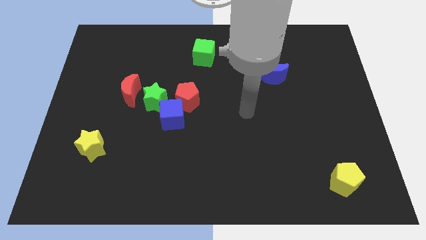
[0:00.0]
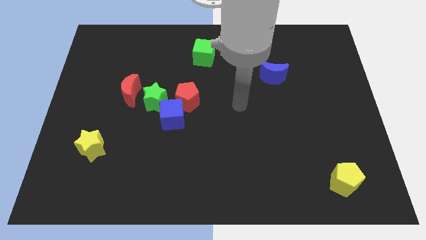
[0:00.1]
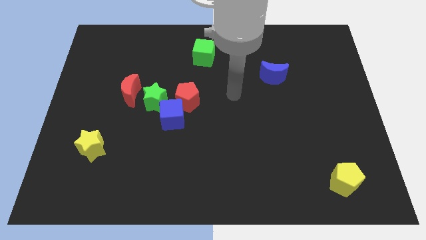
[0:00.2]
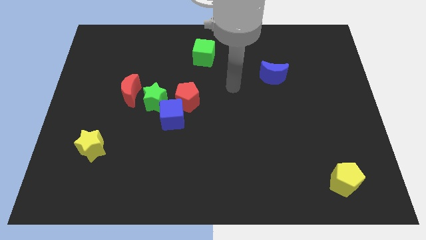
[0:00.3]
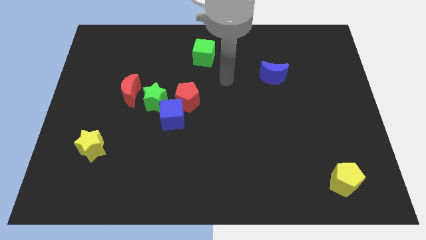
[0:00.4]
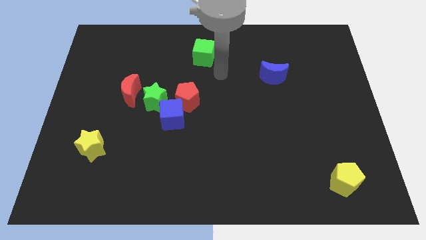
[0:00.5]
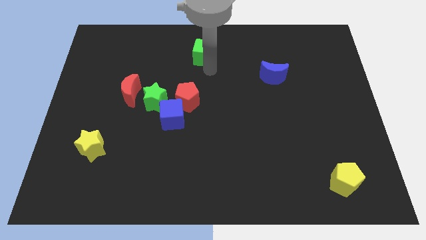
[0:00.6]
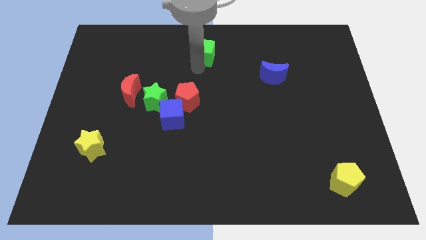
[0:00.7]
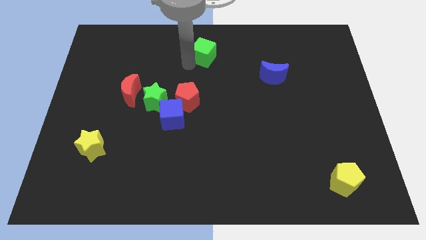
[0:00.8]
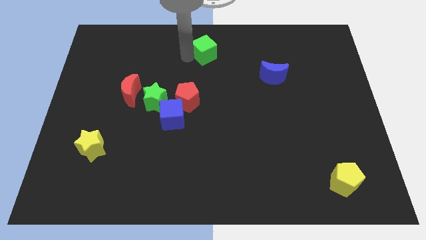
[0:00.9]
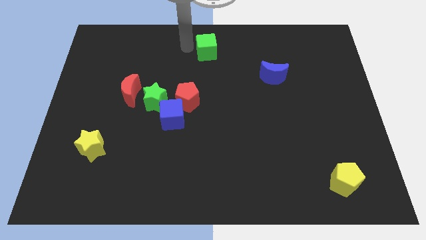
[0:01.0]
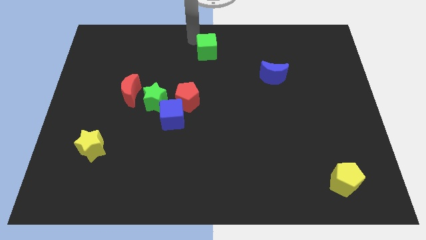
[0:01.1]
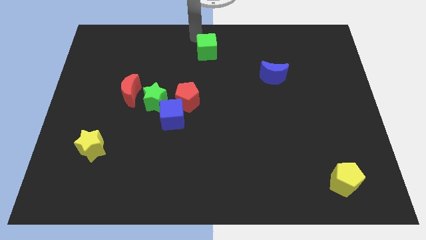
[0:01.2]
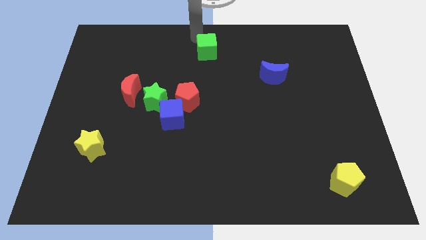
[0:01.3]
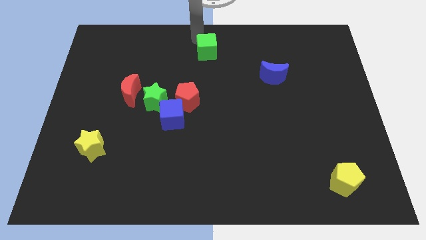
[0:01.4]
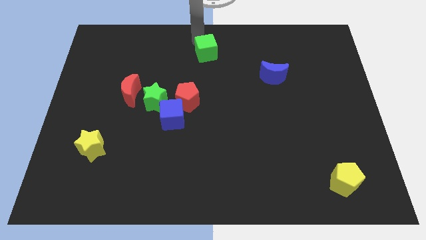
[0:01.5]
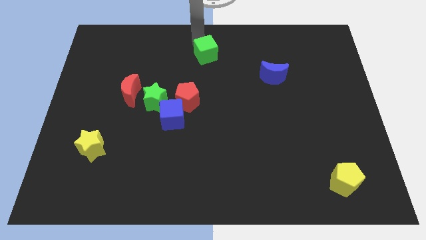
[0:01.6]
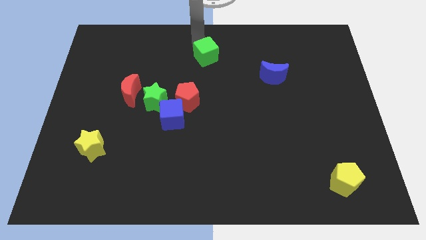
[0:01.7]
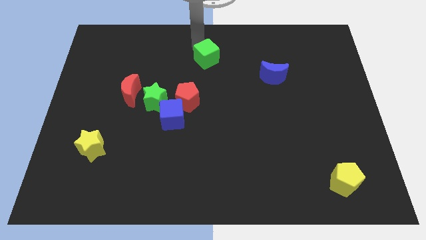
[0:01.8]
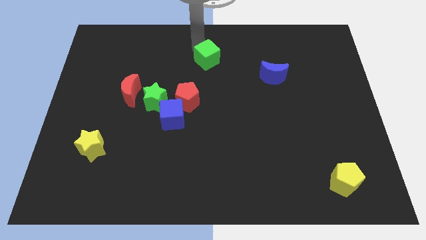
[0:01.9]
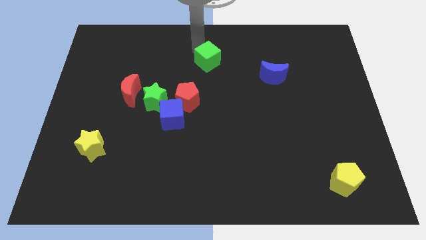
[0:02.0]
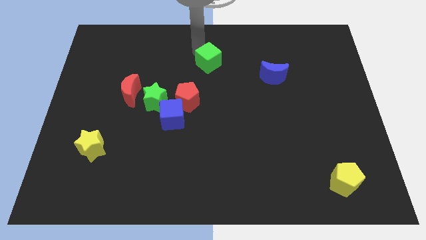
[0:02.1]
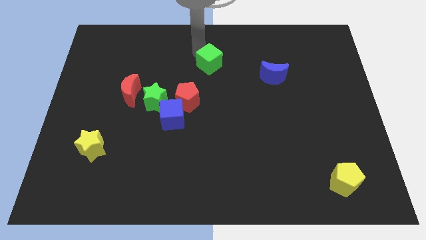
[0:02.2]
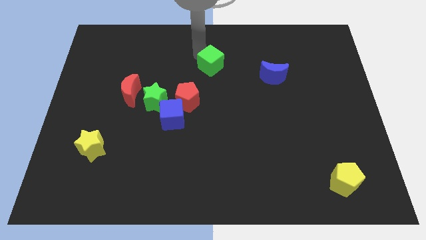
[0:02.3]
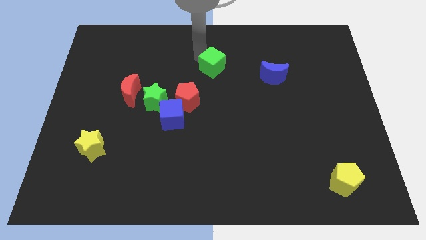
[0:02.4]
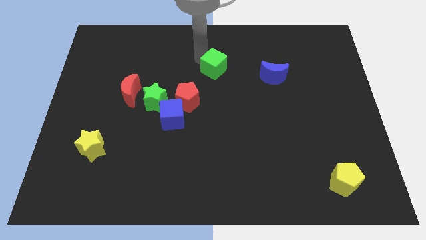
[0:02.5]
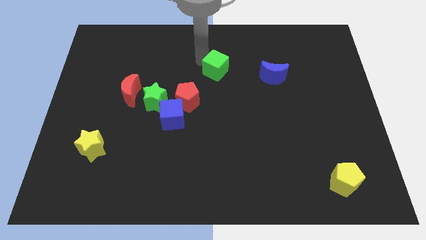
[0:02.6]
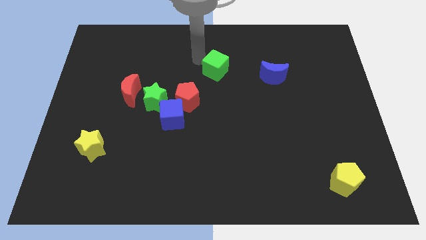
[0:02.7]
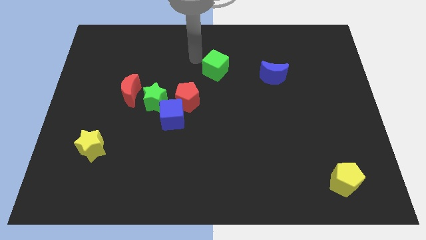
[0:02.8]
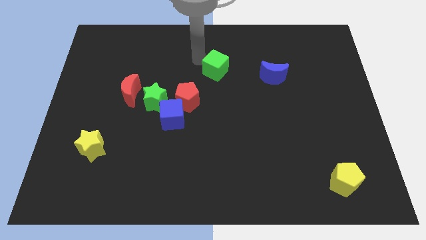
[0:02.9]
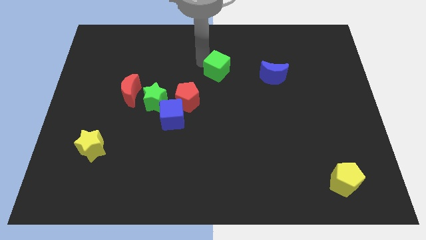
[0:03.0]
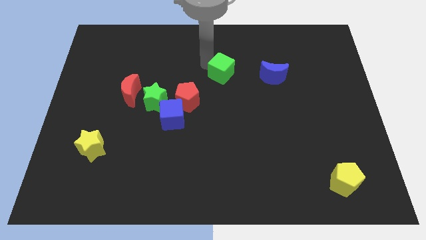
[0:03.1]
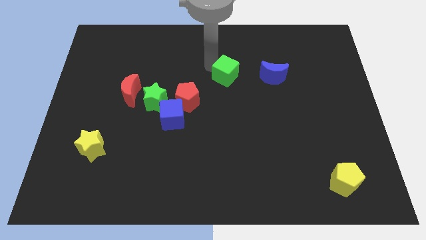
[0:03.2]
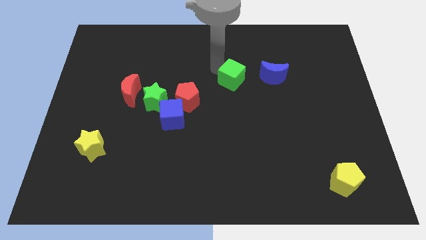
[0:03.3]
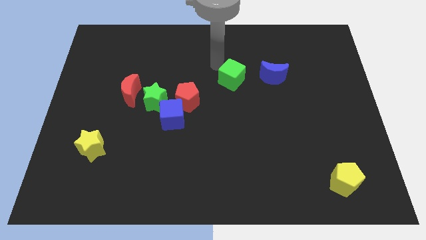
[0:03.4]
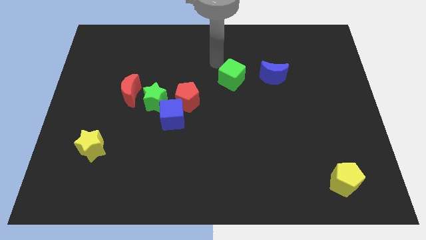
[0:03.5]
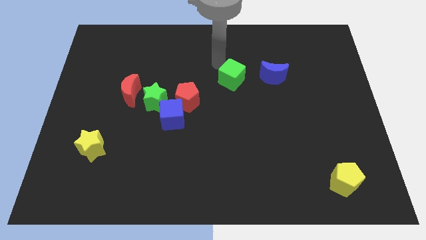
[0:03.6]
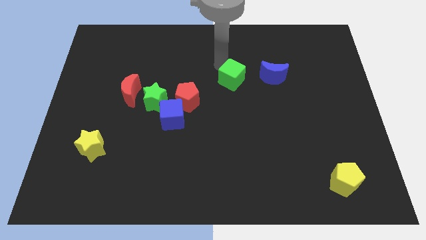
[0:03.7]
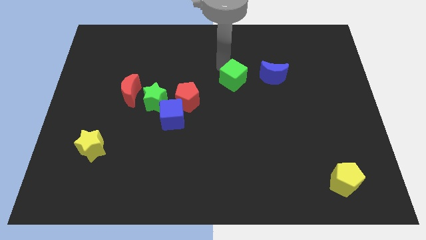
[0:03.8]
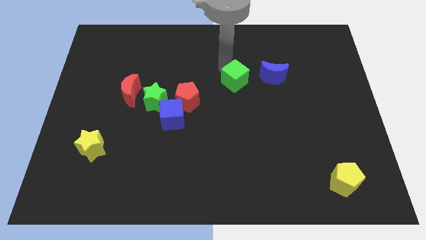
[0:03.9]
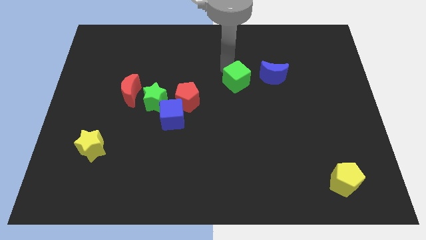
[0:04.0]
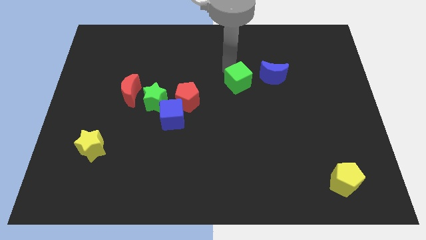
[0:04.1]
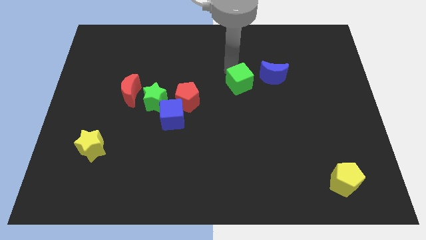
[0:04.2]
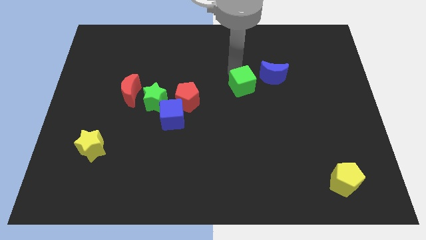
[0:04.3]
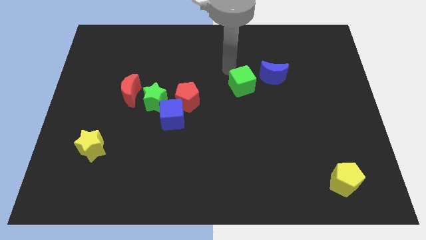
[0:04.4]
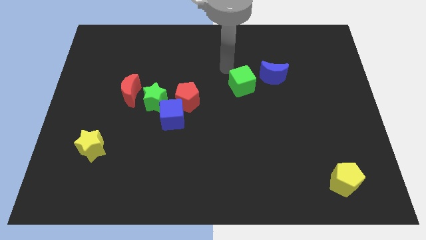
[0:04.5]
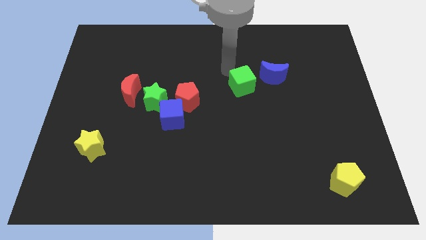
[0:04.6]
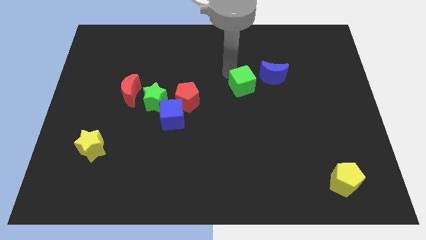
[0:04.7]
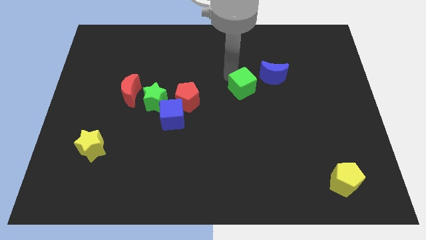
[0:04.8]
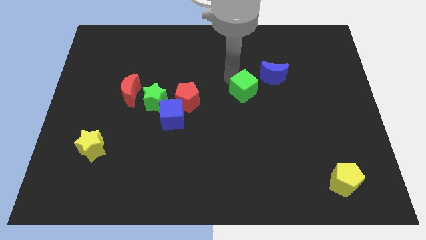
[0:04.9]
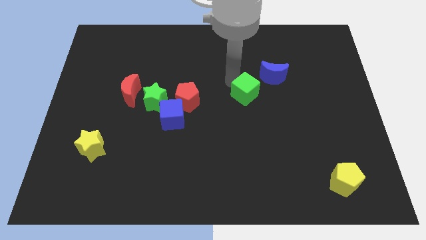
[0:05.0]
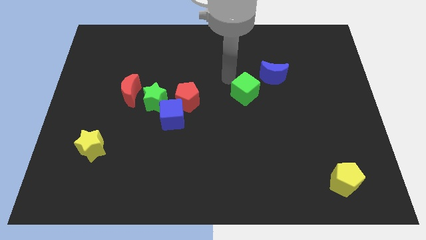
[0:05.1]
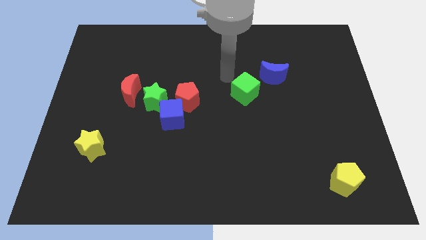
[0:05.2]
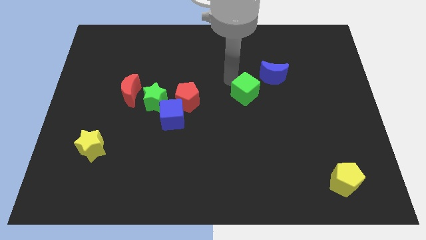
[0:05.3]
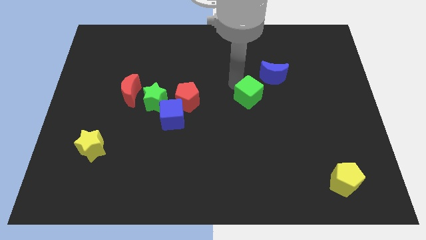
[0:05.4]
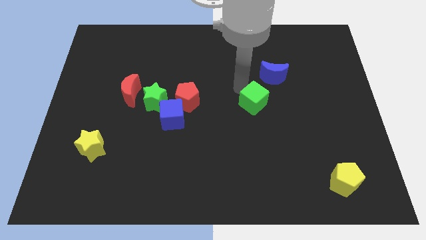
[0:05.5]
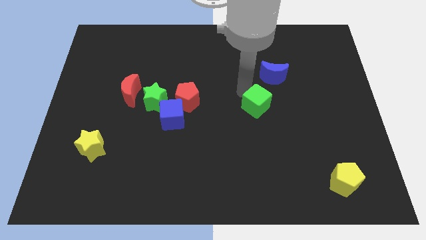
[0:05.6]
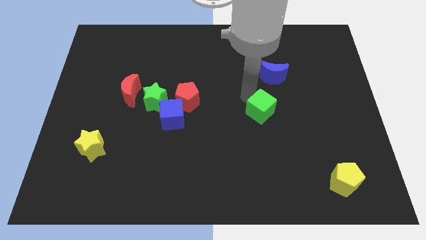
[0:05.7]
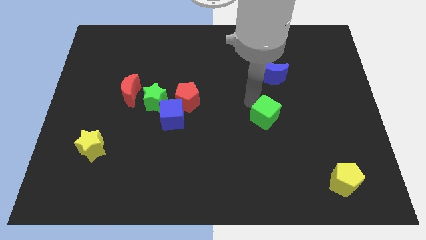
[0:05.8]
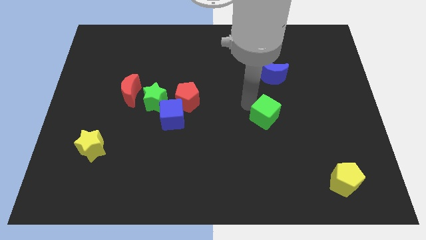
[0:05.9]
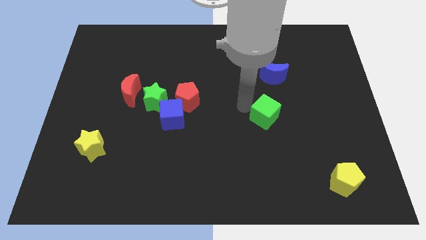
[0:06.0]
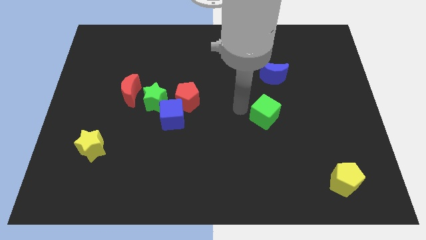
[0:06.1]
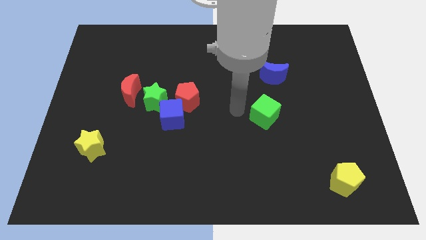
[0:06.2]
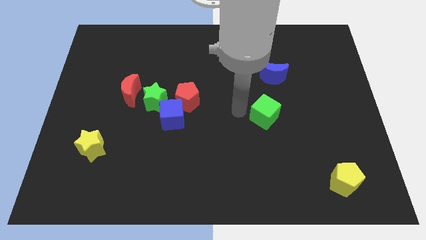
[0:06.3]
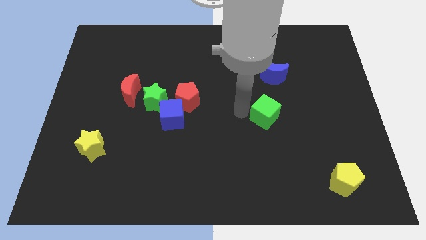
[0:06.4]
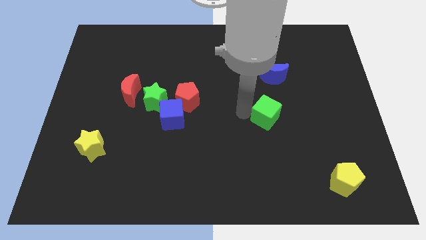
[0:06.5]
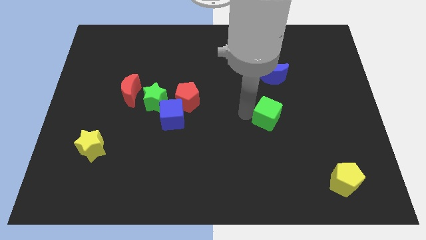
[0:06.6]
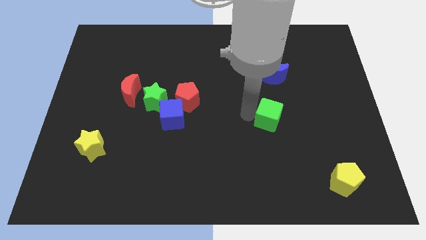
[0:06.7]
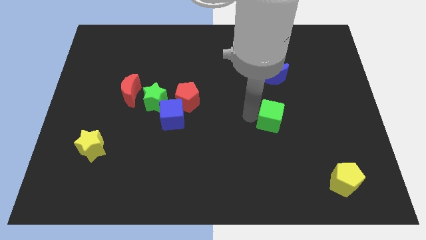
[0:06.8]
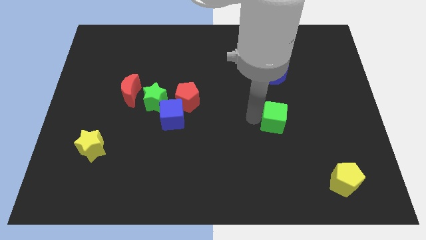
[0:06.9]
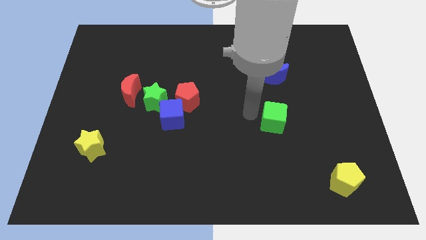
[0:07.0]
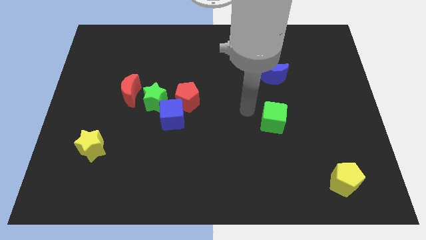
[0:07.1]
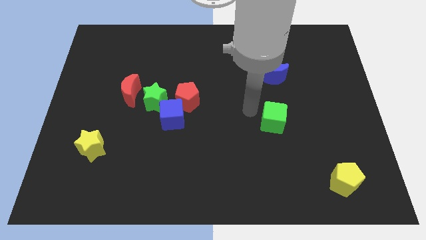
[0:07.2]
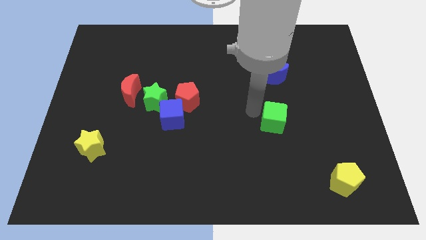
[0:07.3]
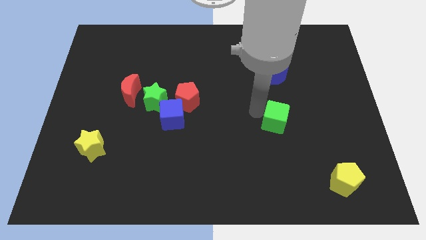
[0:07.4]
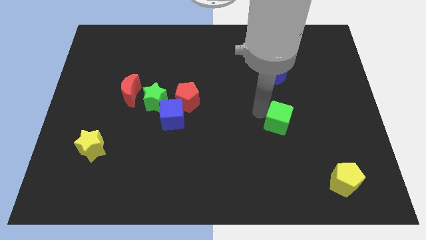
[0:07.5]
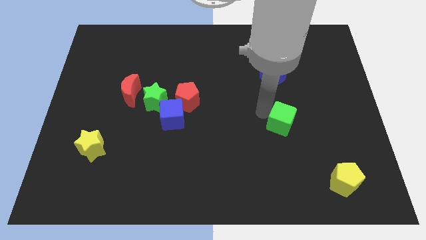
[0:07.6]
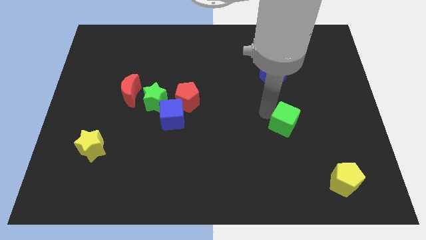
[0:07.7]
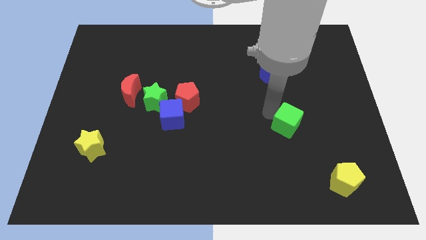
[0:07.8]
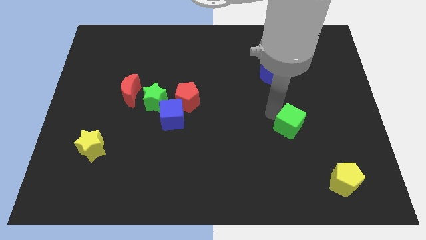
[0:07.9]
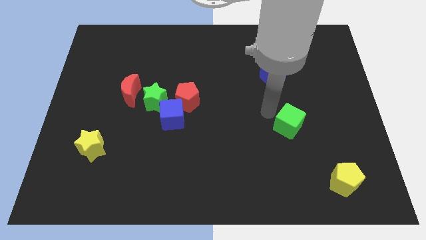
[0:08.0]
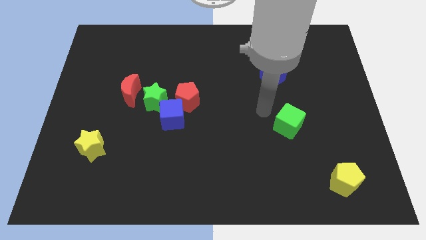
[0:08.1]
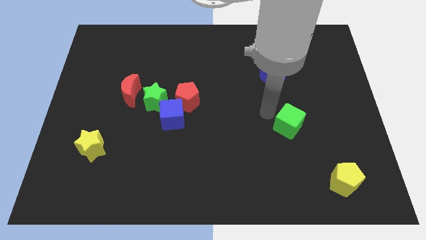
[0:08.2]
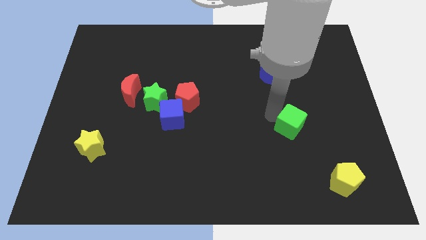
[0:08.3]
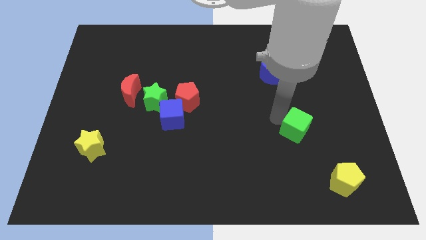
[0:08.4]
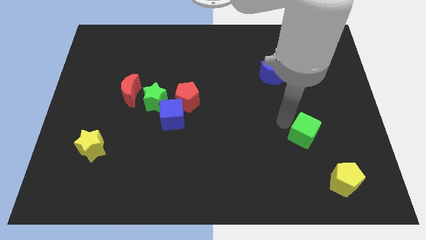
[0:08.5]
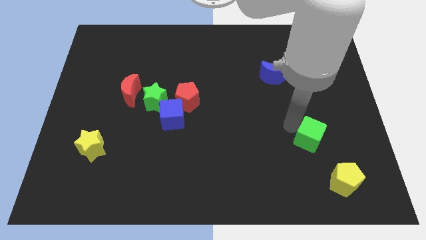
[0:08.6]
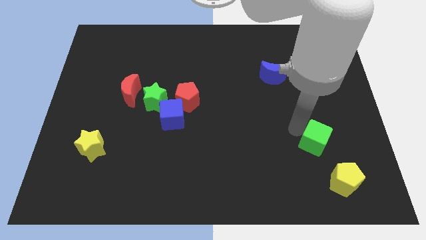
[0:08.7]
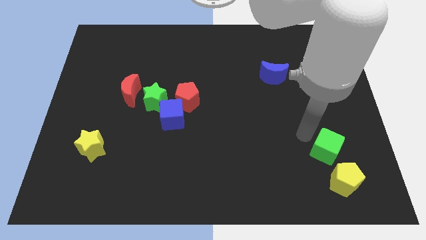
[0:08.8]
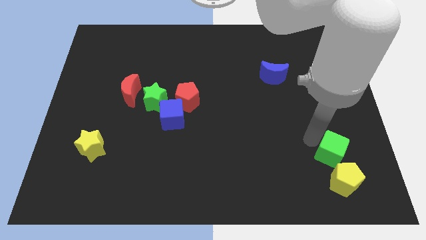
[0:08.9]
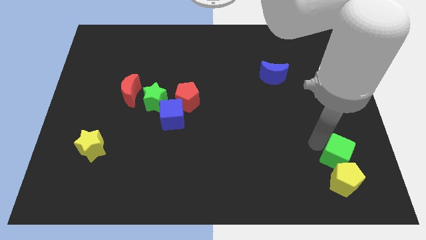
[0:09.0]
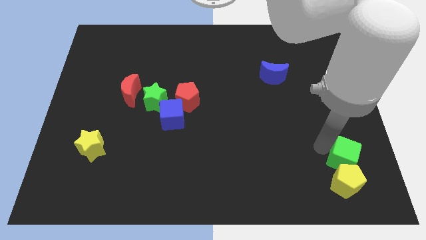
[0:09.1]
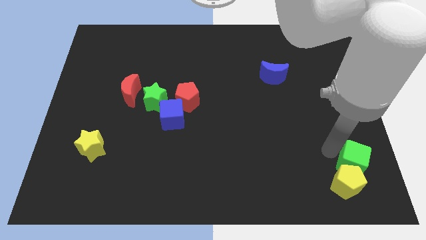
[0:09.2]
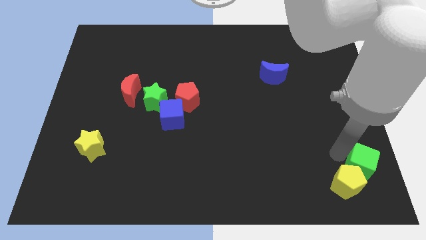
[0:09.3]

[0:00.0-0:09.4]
move the green cube to the bottom right corner
